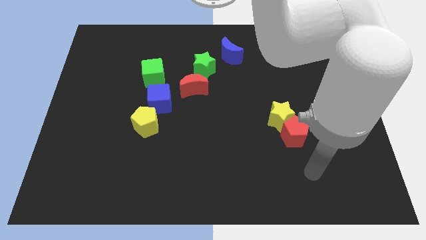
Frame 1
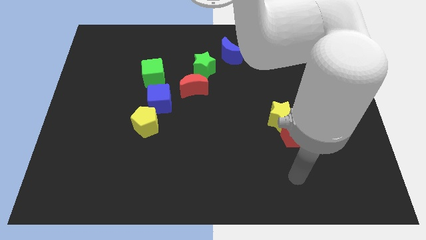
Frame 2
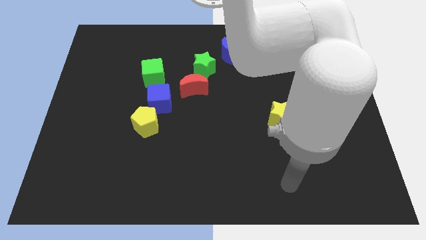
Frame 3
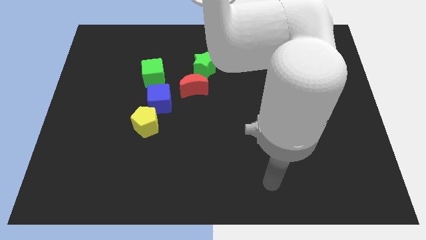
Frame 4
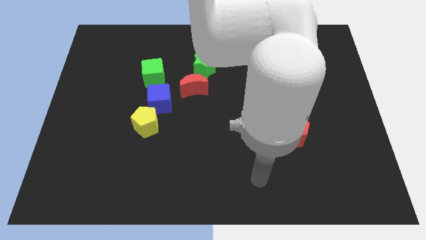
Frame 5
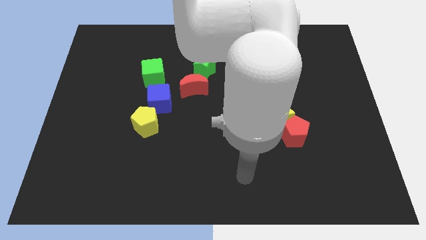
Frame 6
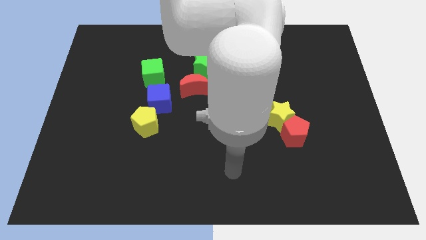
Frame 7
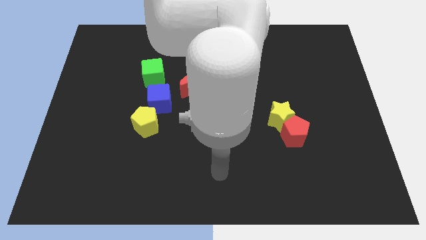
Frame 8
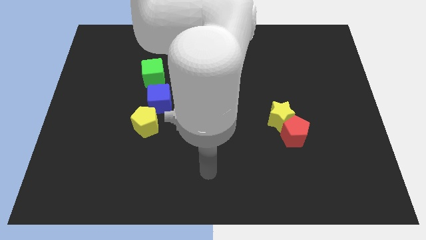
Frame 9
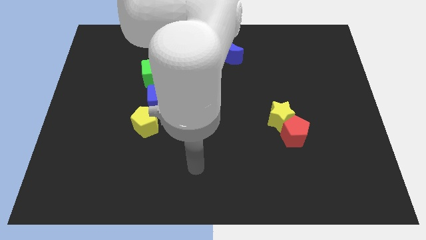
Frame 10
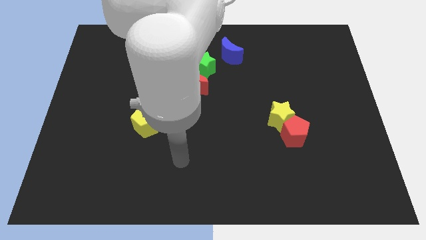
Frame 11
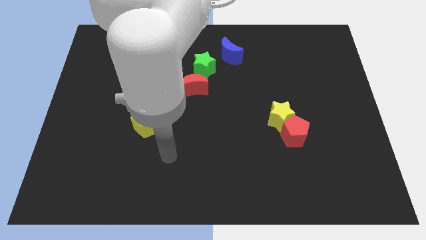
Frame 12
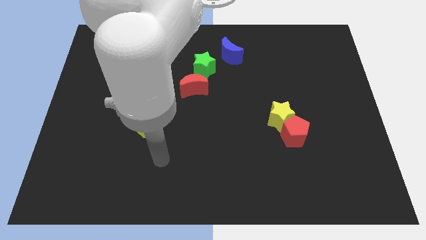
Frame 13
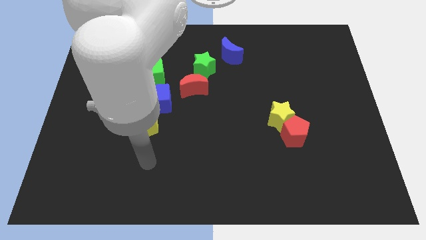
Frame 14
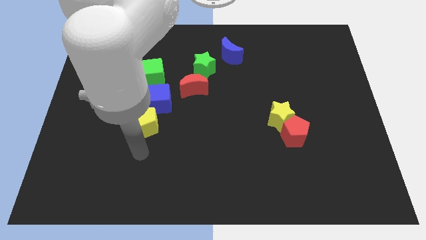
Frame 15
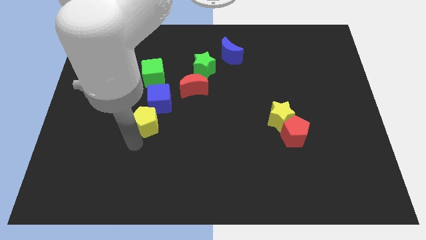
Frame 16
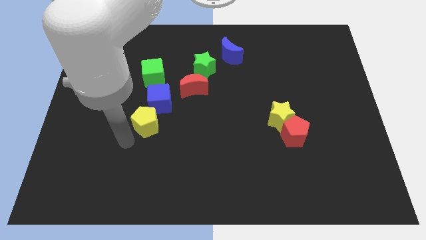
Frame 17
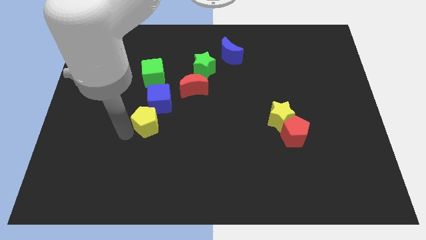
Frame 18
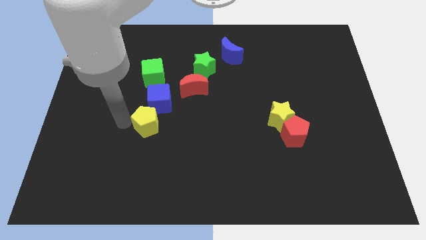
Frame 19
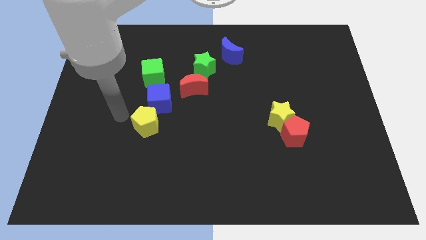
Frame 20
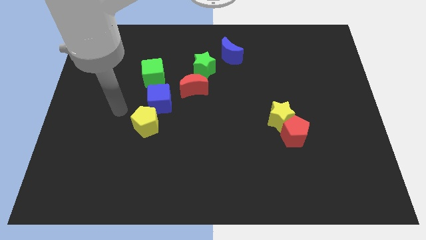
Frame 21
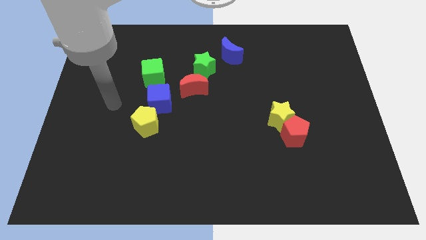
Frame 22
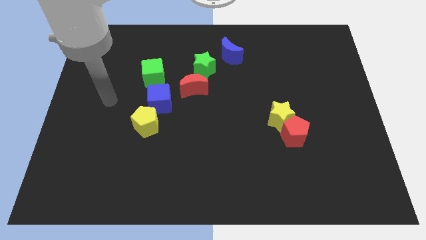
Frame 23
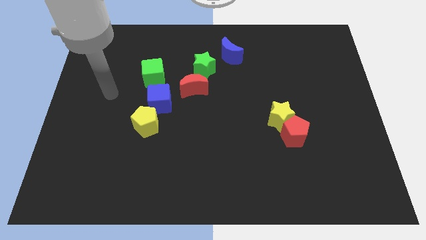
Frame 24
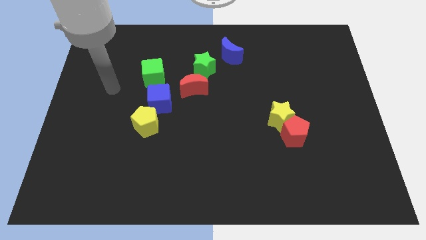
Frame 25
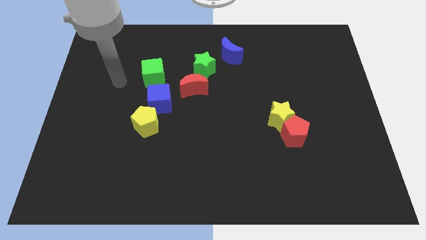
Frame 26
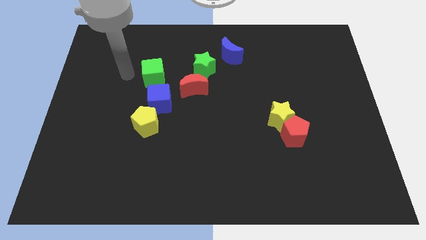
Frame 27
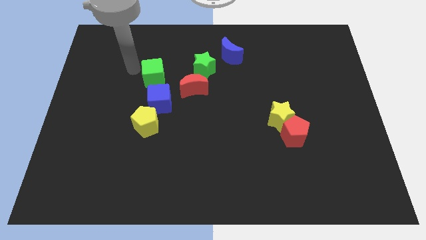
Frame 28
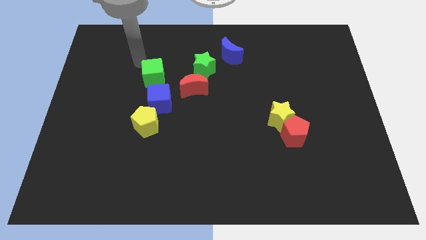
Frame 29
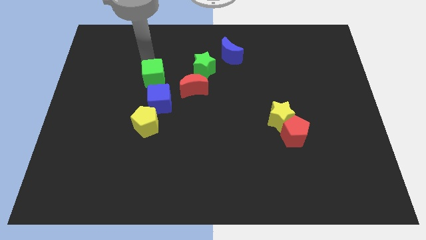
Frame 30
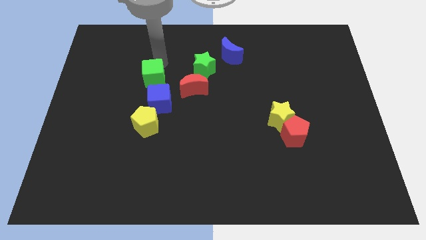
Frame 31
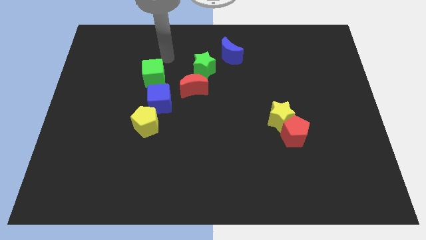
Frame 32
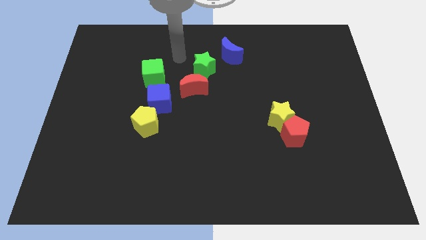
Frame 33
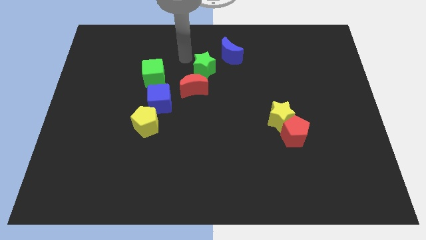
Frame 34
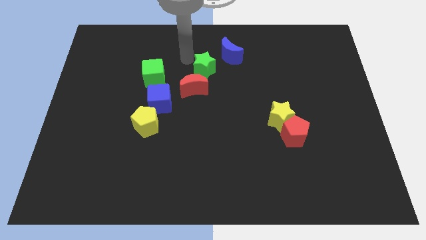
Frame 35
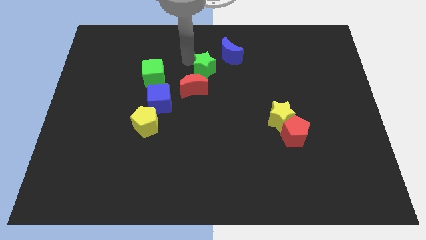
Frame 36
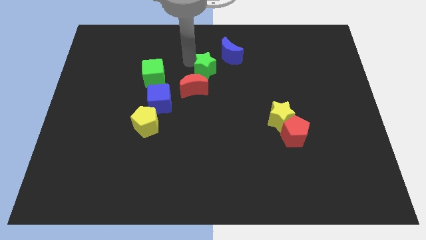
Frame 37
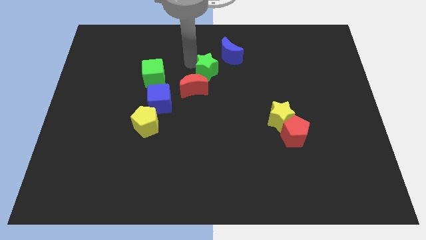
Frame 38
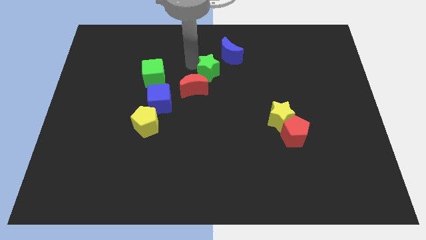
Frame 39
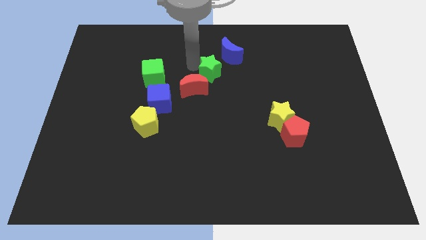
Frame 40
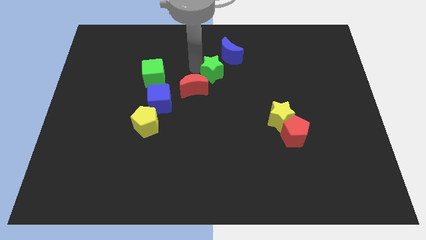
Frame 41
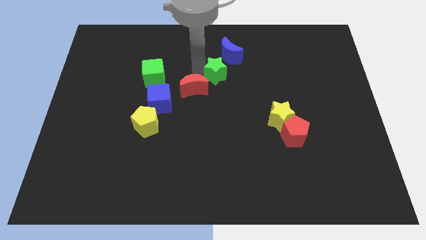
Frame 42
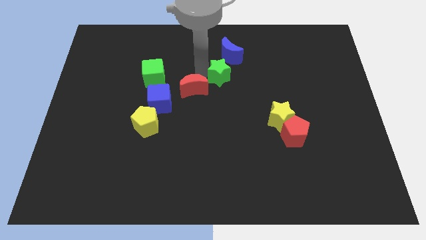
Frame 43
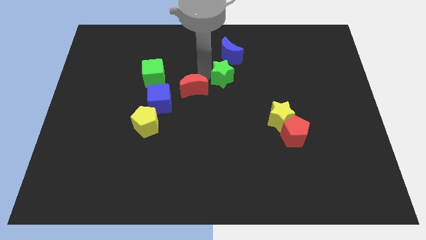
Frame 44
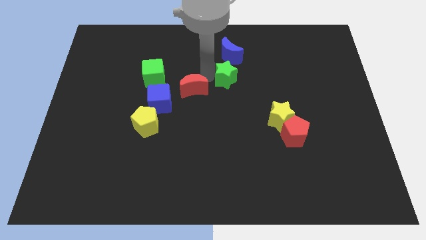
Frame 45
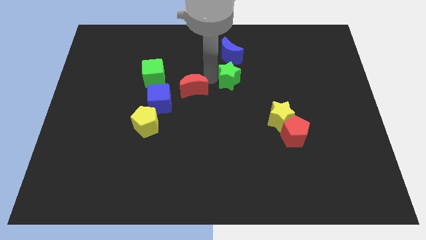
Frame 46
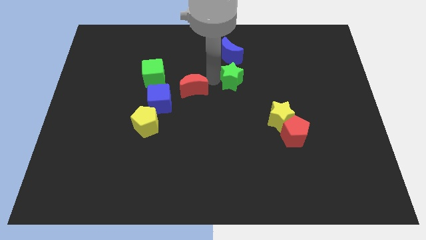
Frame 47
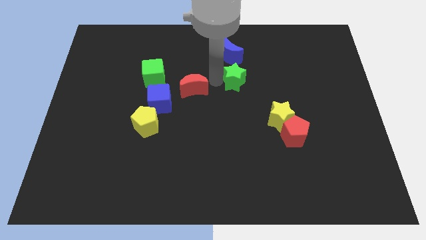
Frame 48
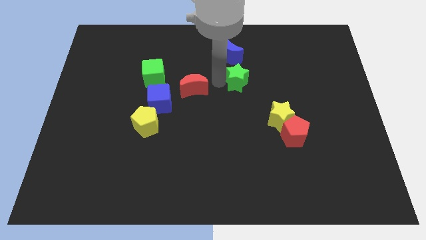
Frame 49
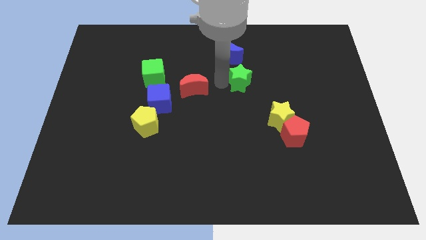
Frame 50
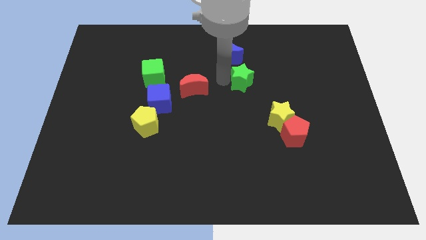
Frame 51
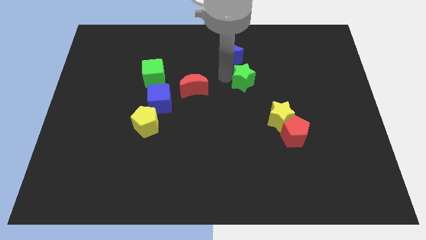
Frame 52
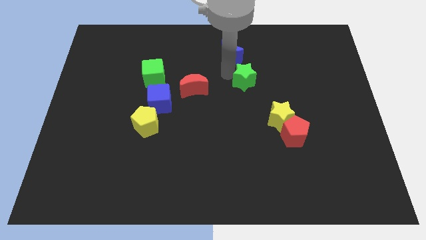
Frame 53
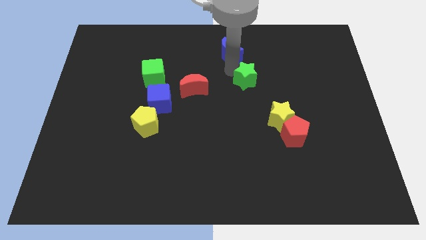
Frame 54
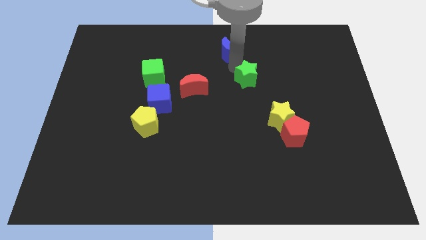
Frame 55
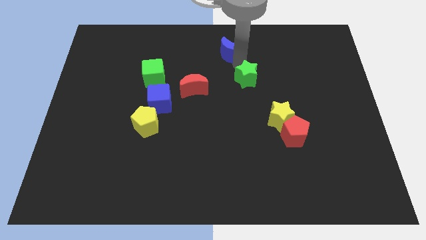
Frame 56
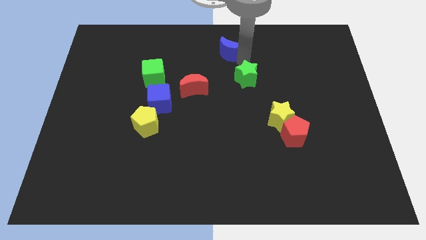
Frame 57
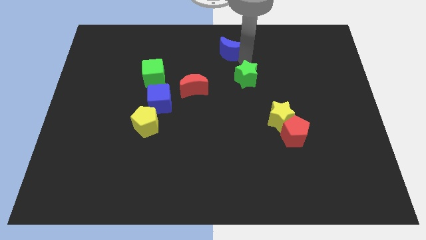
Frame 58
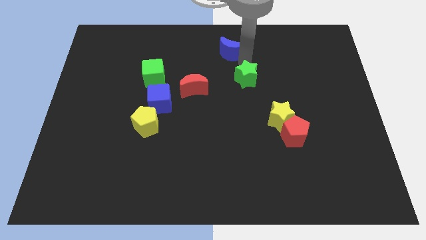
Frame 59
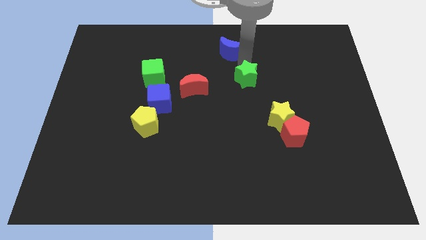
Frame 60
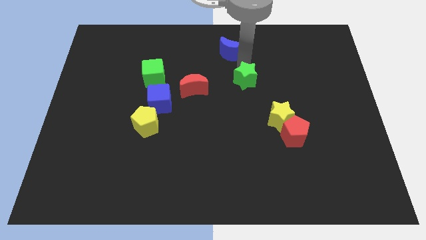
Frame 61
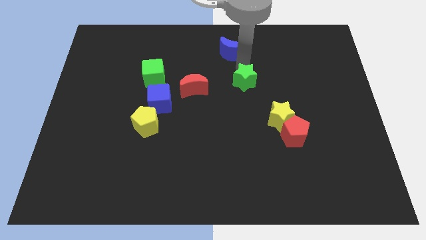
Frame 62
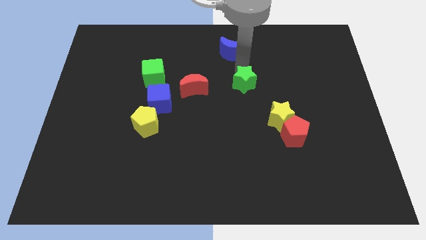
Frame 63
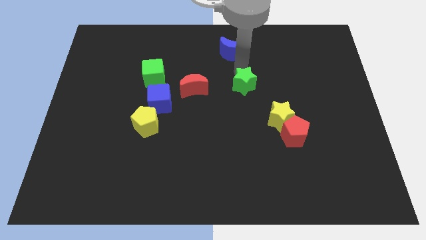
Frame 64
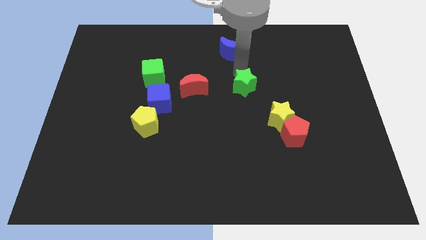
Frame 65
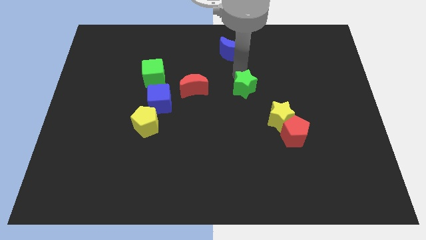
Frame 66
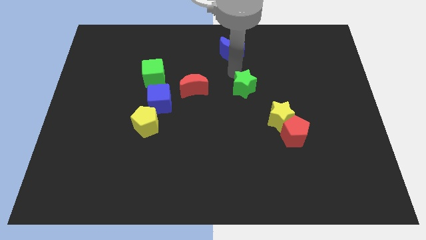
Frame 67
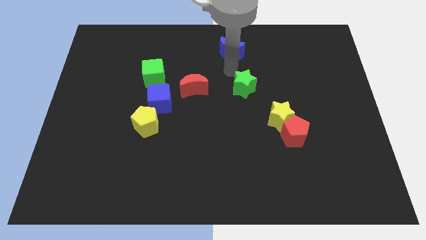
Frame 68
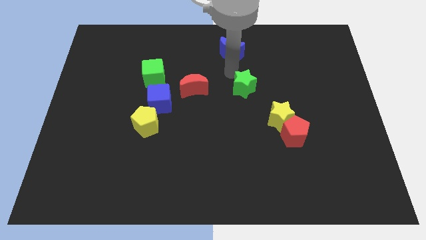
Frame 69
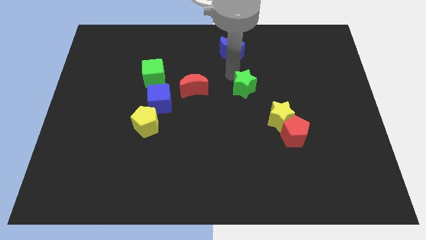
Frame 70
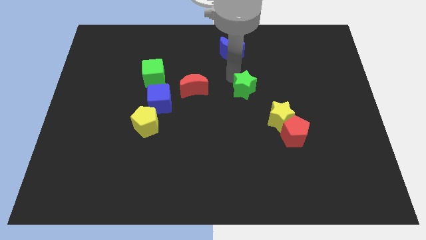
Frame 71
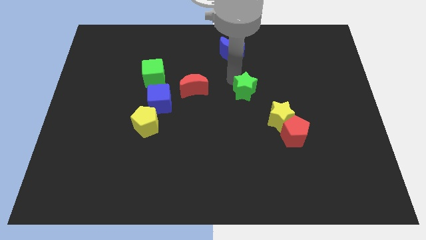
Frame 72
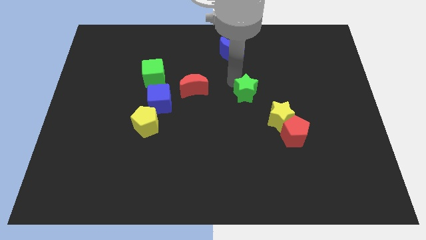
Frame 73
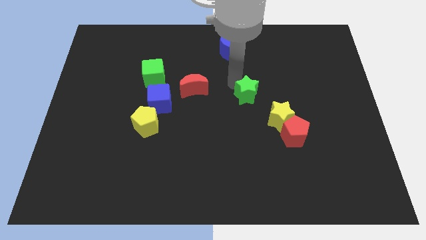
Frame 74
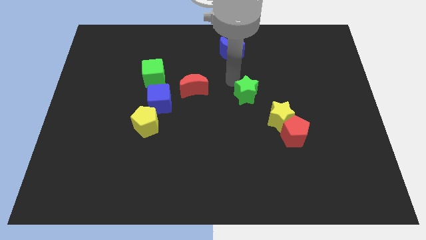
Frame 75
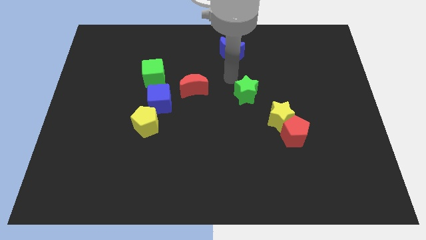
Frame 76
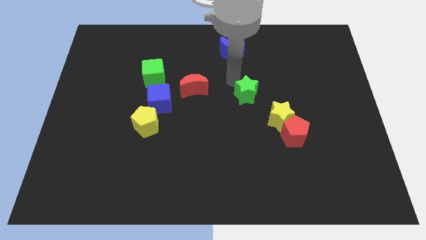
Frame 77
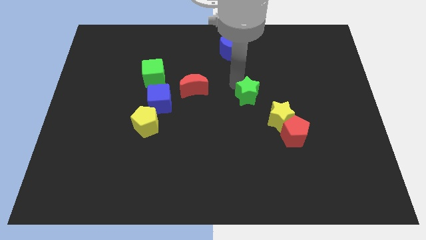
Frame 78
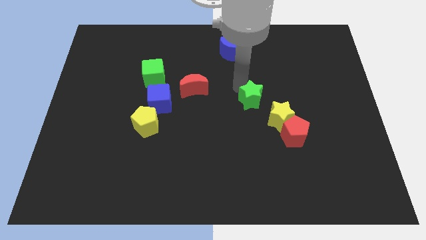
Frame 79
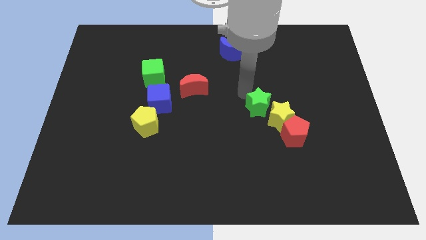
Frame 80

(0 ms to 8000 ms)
move the green star towards the yellow star
